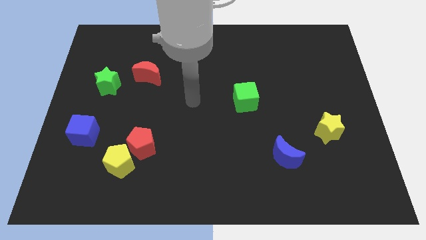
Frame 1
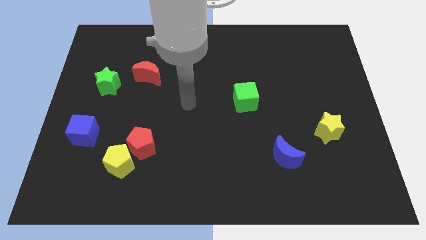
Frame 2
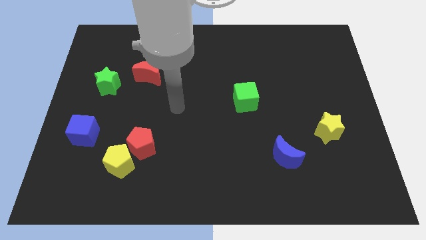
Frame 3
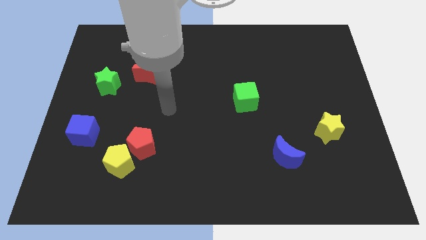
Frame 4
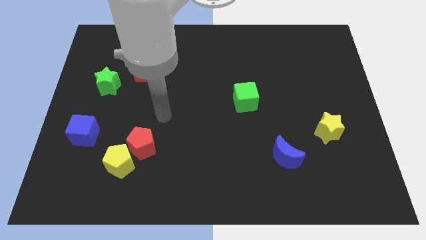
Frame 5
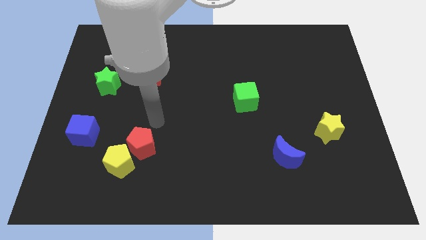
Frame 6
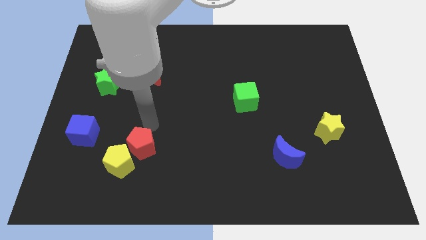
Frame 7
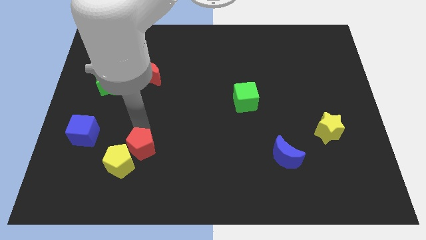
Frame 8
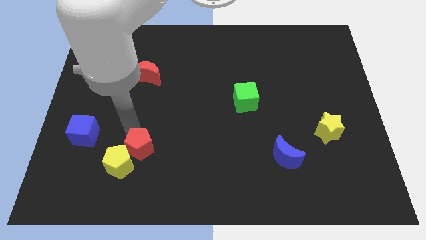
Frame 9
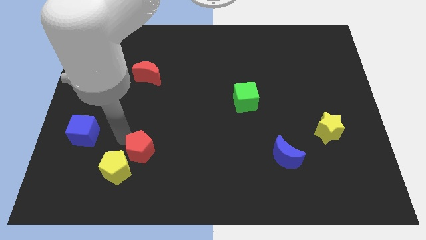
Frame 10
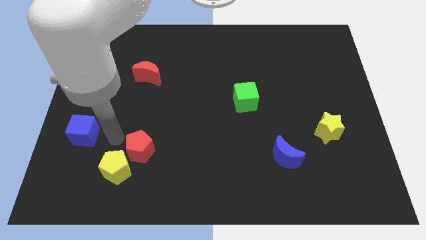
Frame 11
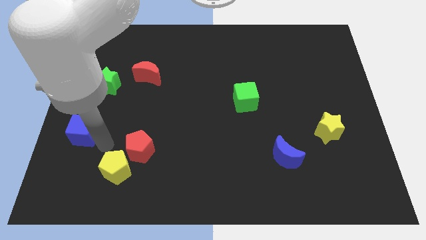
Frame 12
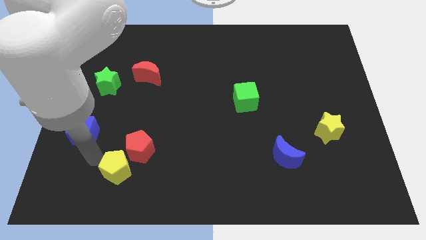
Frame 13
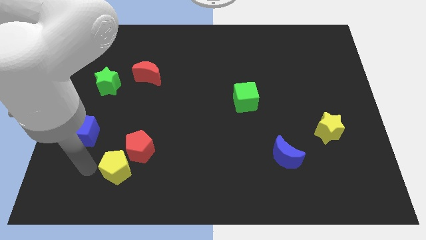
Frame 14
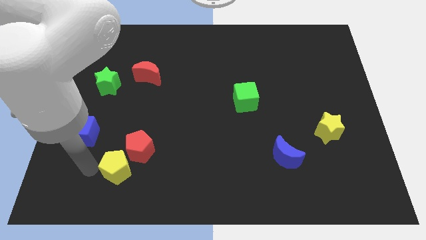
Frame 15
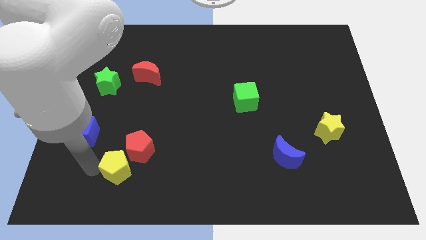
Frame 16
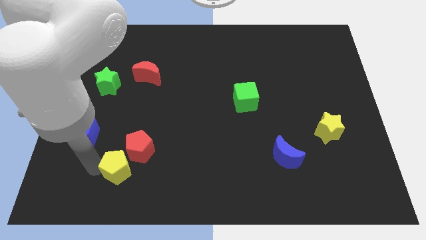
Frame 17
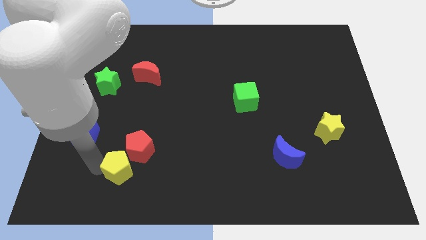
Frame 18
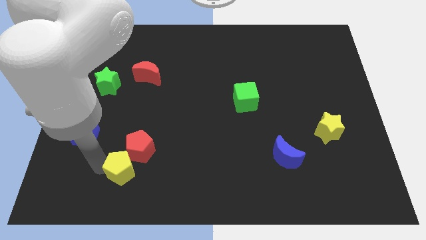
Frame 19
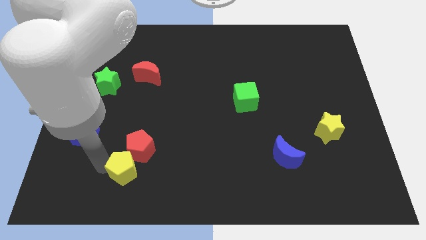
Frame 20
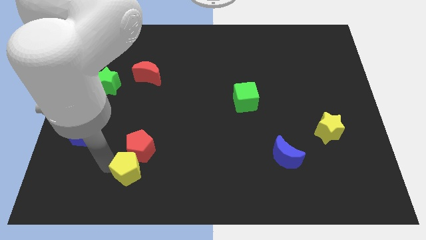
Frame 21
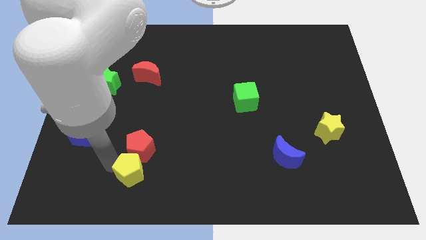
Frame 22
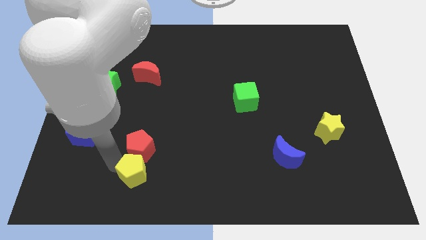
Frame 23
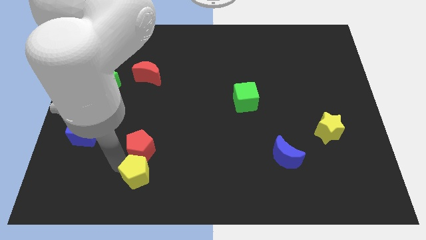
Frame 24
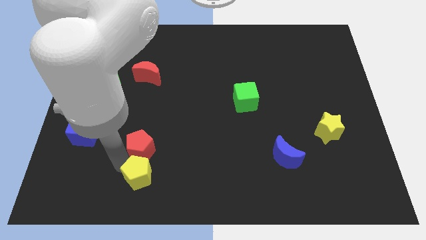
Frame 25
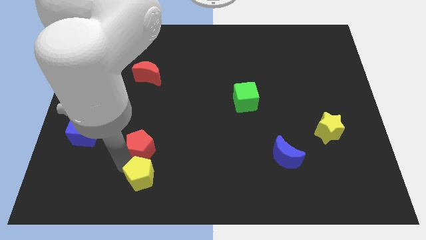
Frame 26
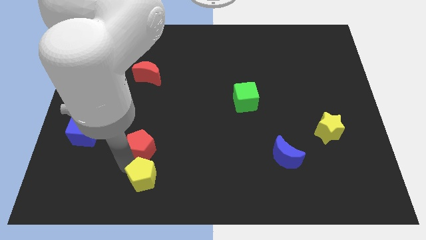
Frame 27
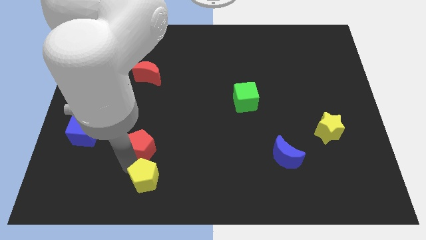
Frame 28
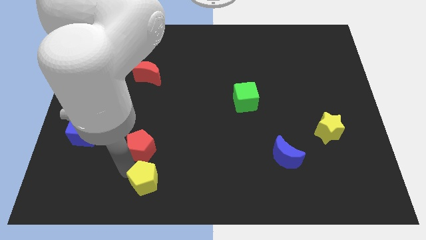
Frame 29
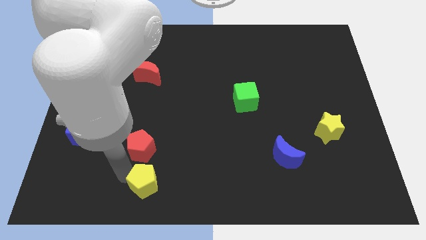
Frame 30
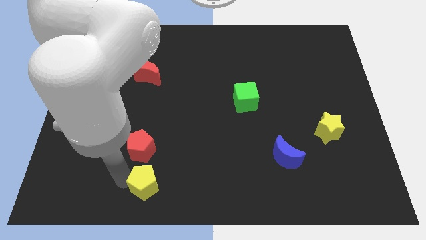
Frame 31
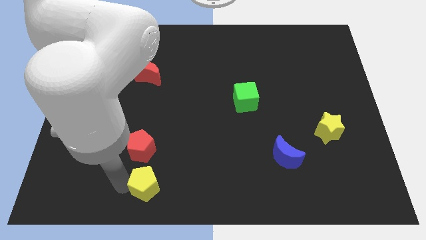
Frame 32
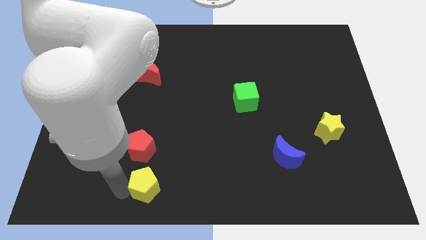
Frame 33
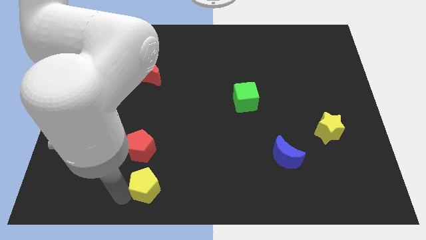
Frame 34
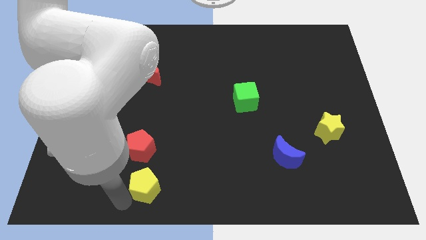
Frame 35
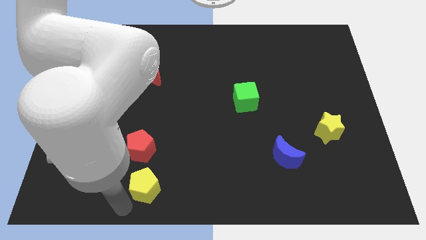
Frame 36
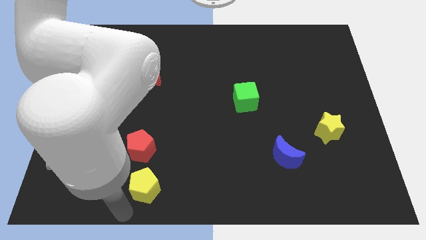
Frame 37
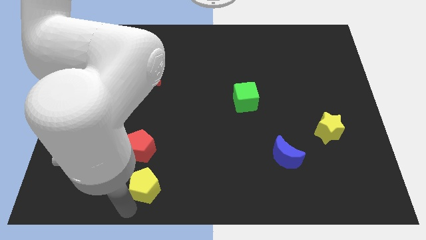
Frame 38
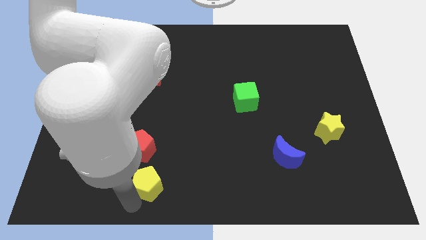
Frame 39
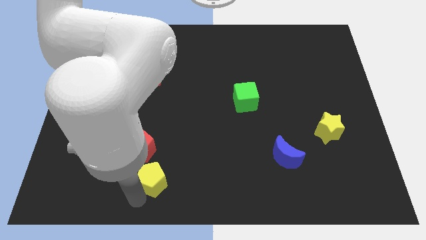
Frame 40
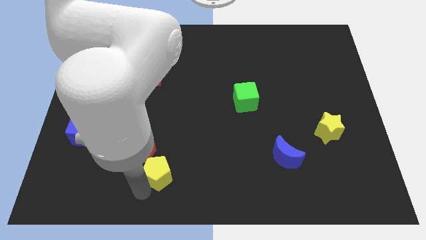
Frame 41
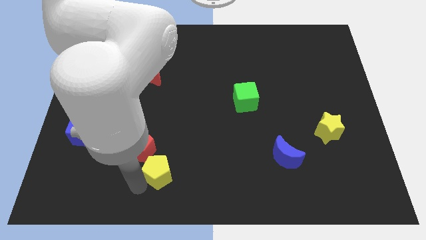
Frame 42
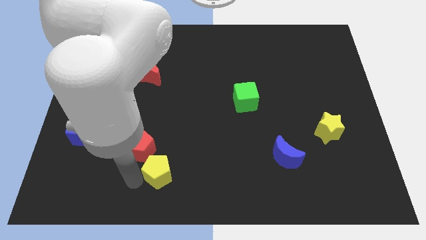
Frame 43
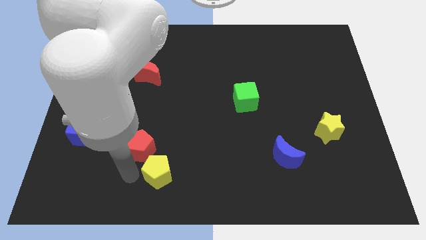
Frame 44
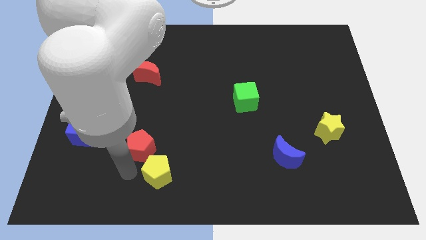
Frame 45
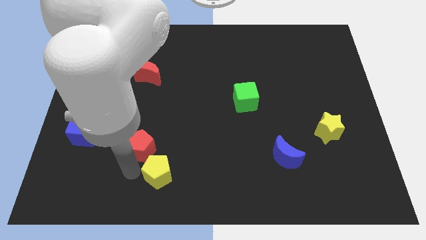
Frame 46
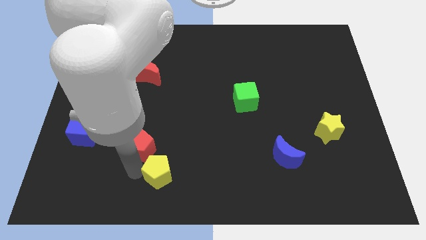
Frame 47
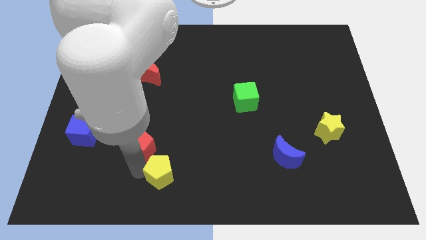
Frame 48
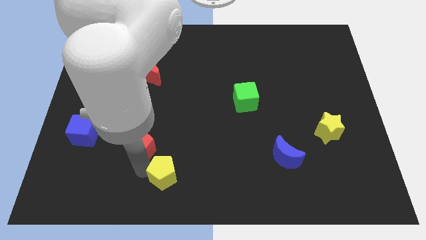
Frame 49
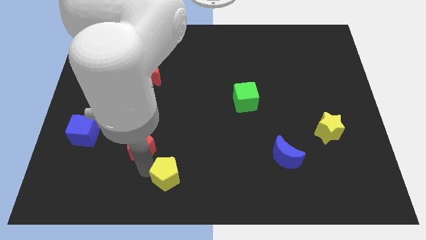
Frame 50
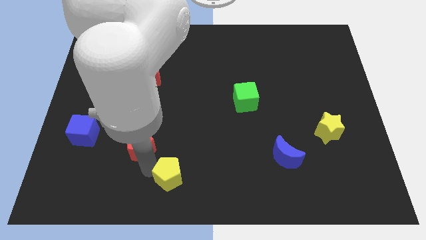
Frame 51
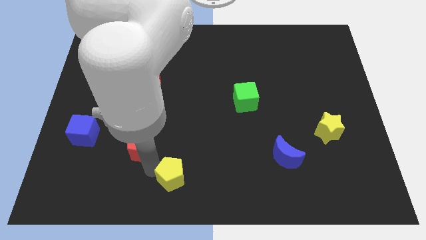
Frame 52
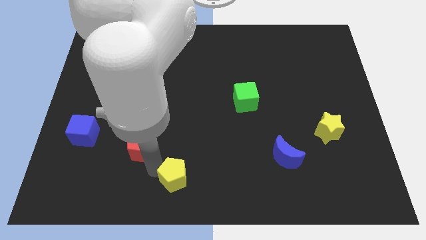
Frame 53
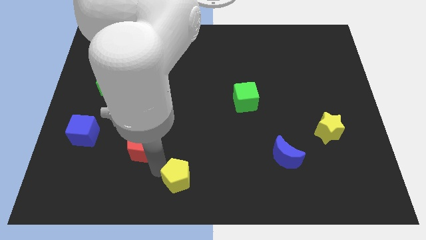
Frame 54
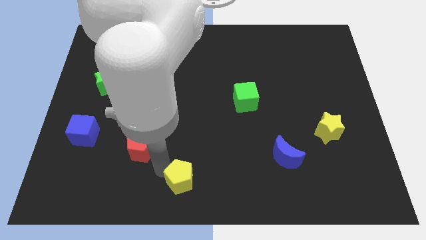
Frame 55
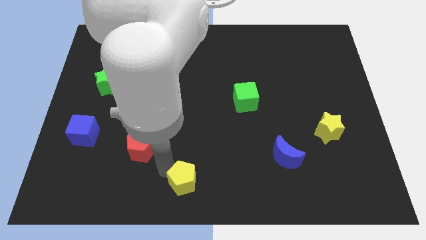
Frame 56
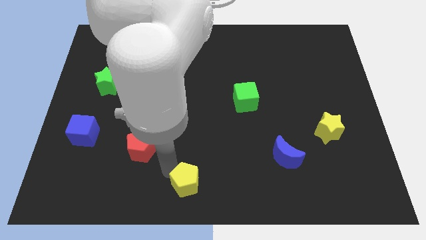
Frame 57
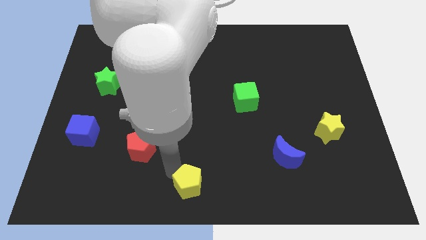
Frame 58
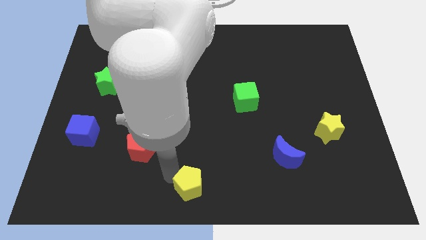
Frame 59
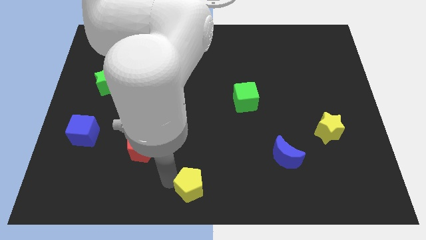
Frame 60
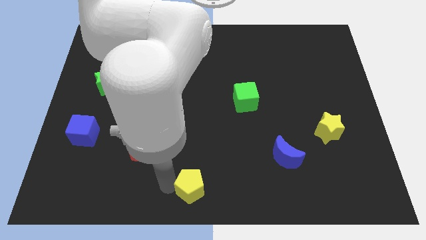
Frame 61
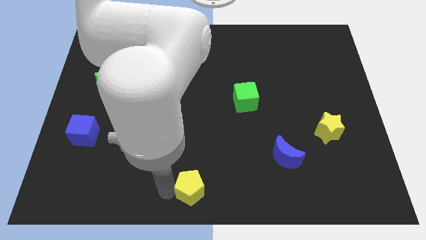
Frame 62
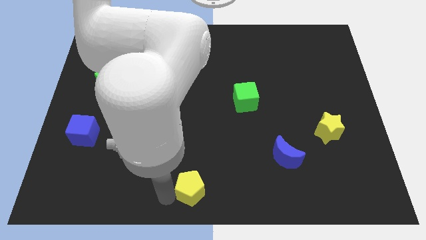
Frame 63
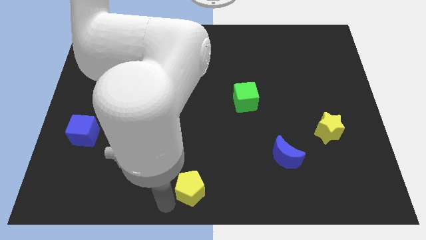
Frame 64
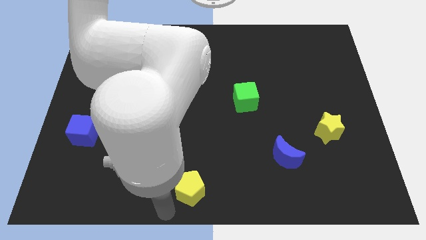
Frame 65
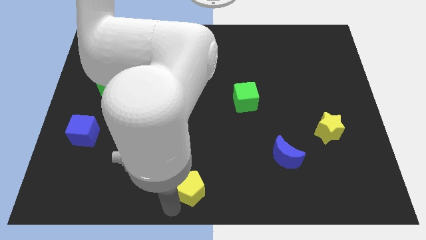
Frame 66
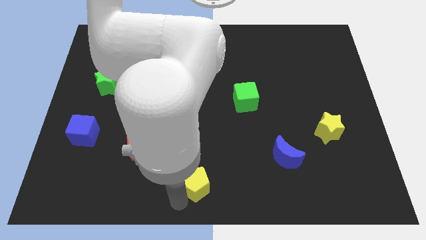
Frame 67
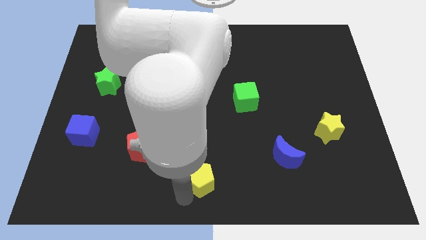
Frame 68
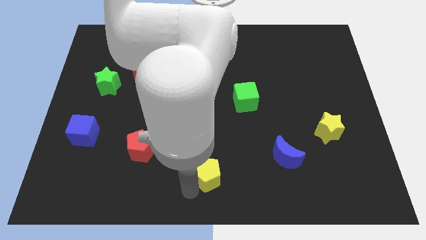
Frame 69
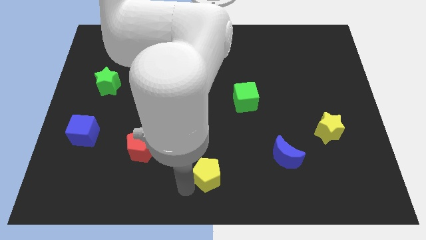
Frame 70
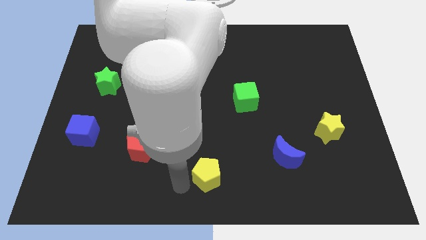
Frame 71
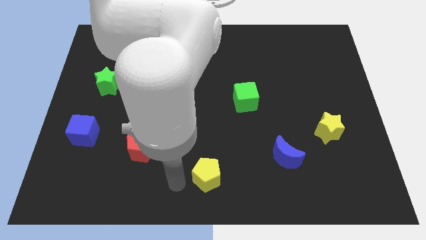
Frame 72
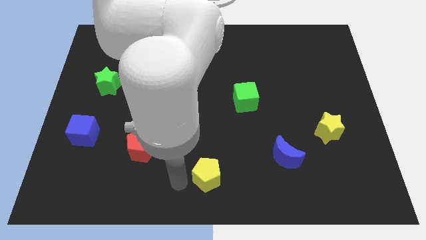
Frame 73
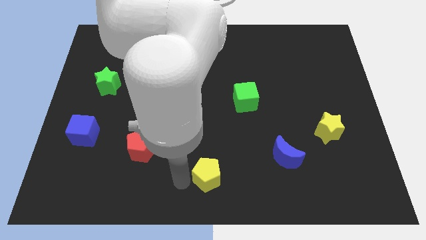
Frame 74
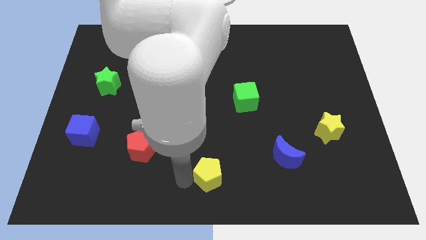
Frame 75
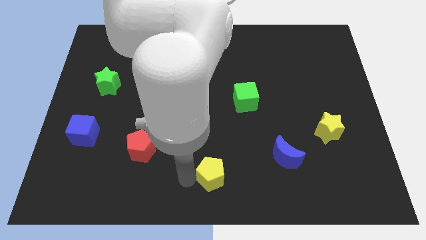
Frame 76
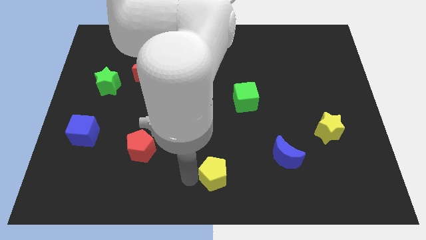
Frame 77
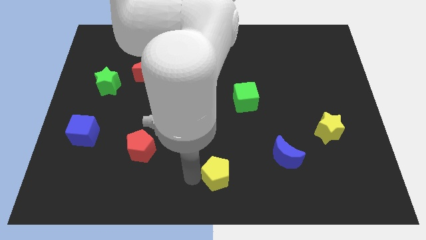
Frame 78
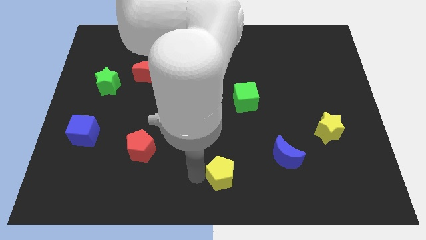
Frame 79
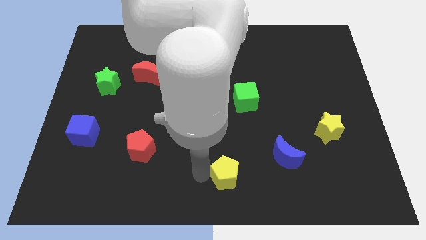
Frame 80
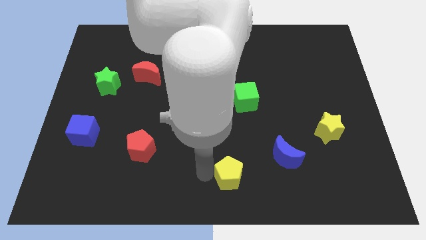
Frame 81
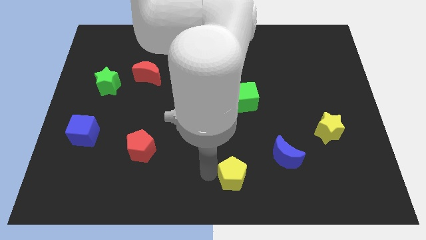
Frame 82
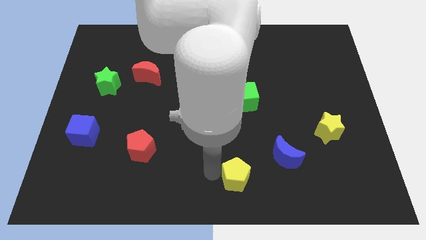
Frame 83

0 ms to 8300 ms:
slide the yellow pentagon diagonally down and to the left of the blue moon
